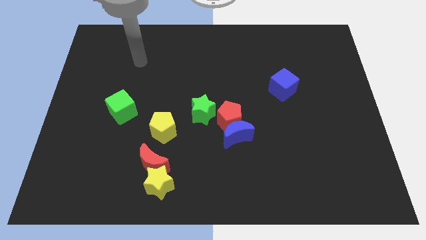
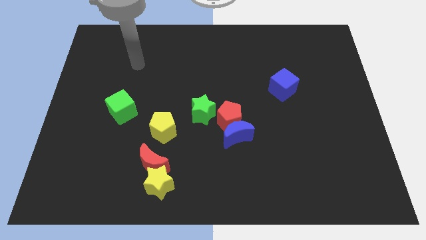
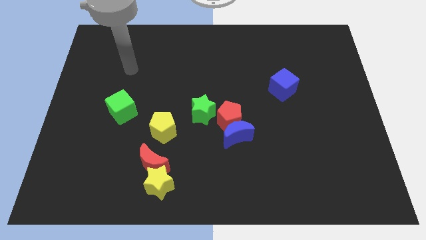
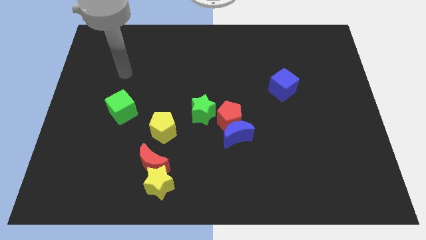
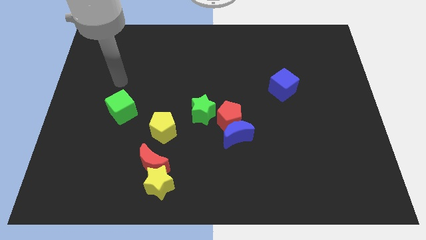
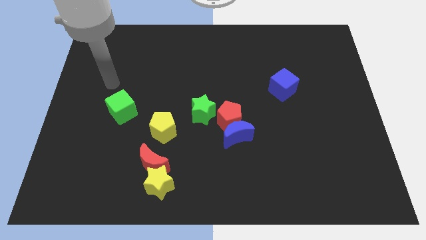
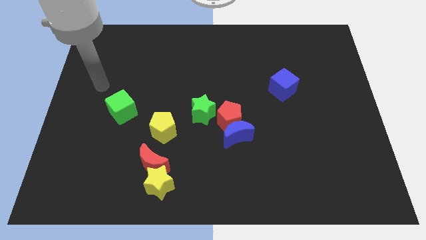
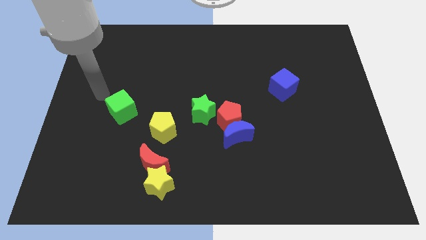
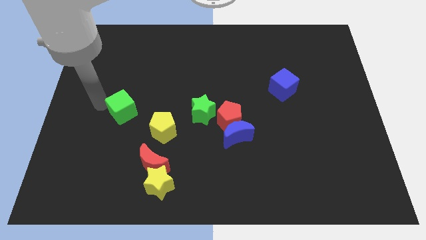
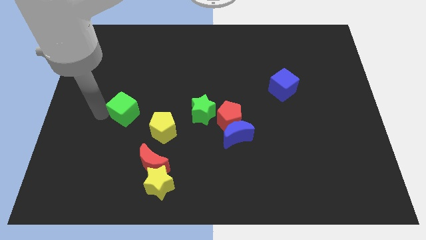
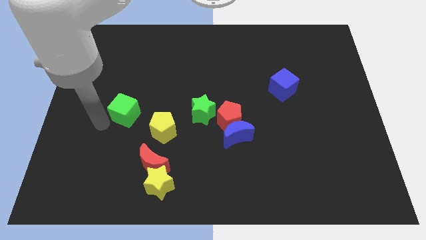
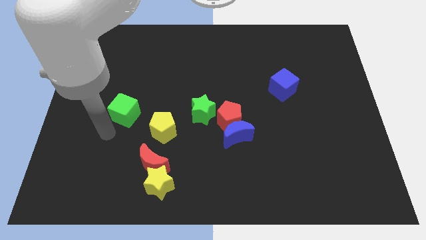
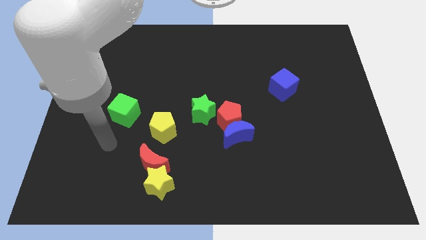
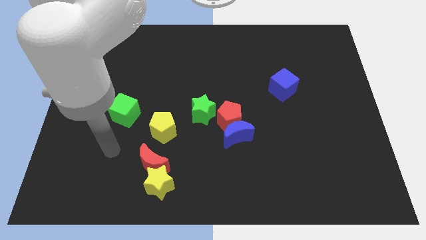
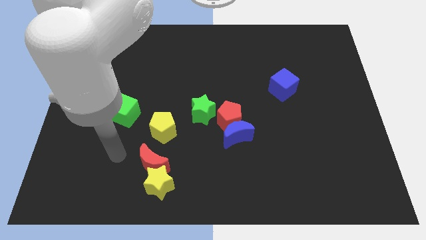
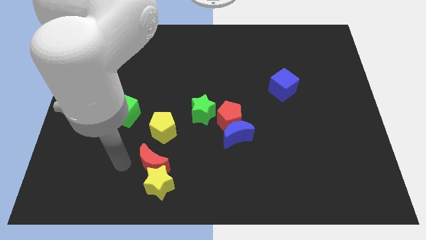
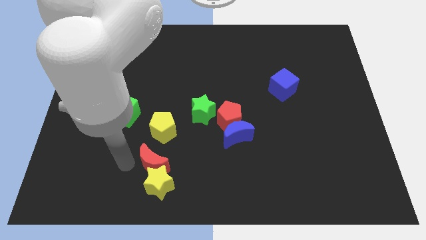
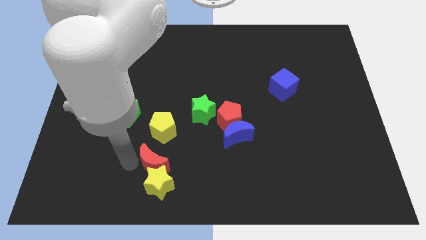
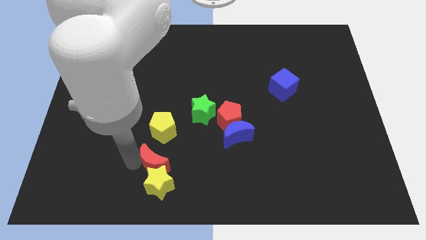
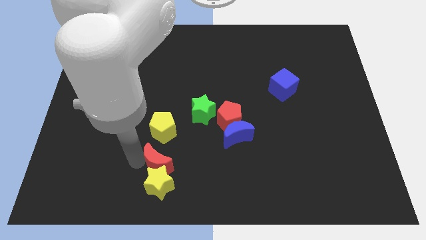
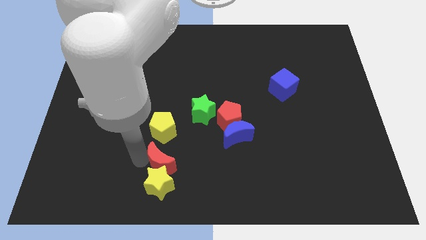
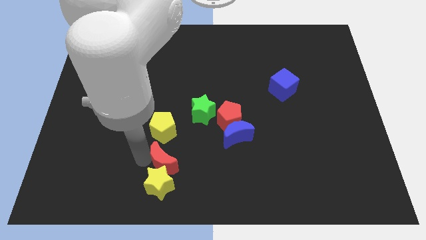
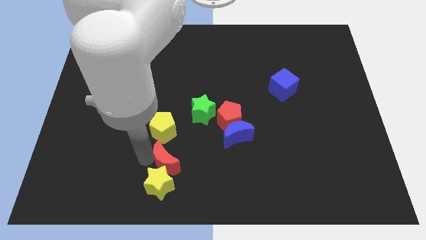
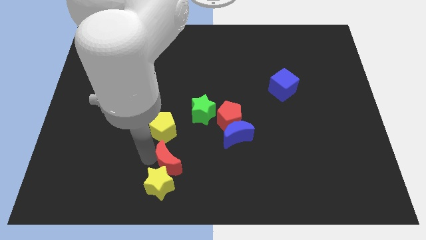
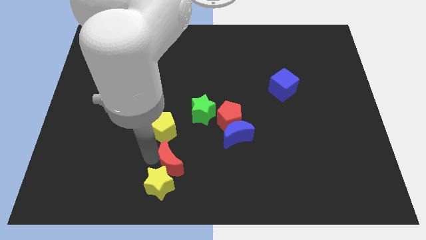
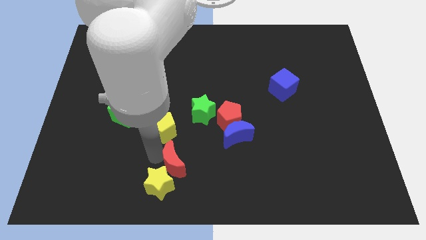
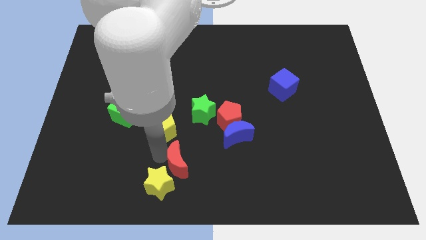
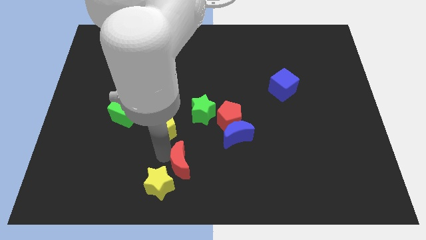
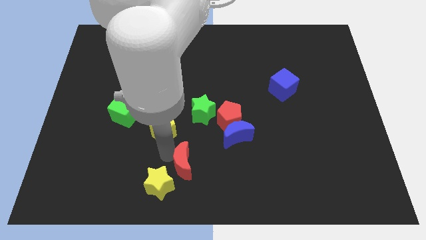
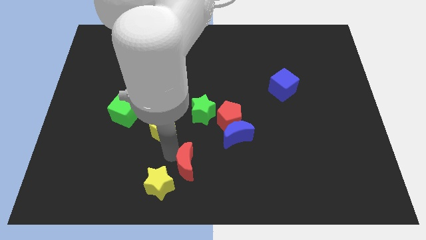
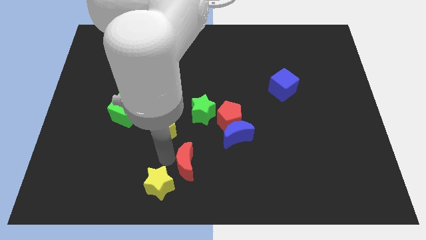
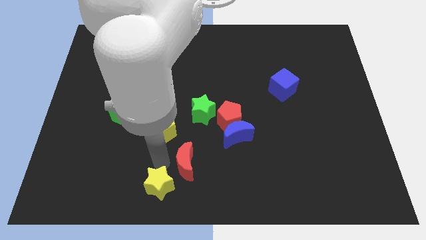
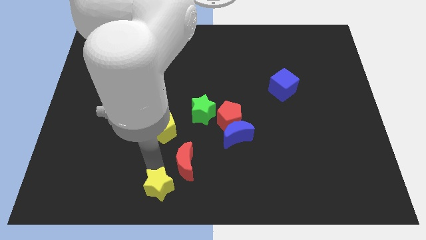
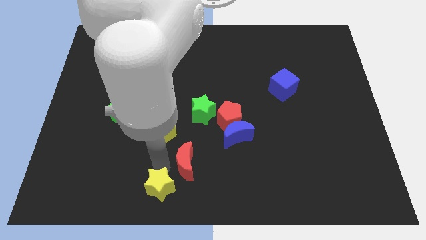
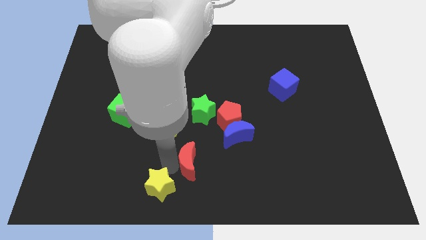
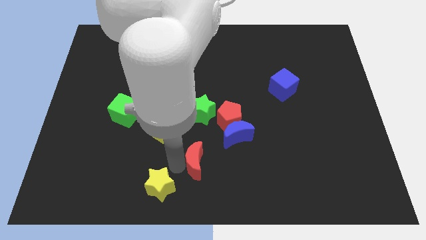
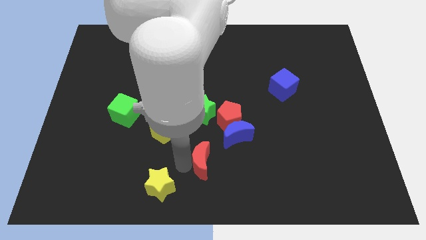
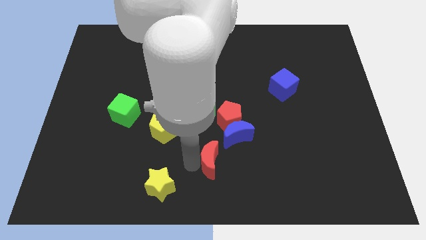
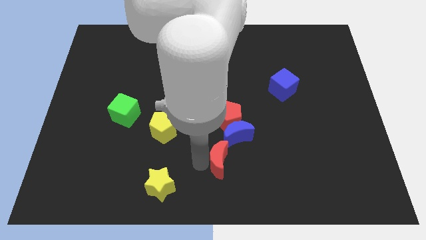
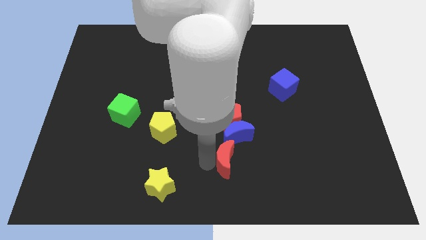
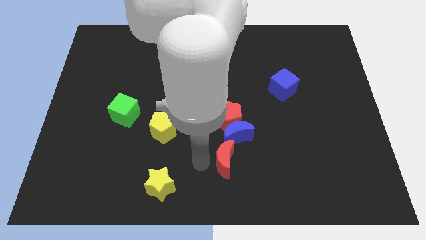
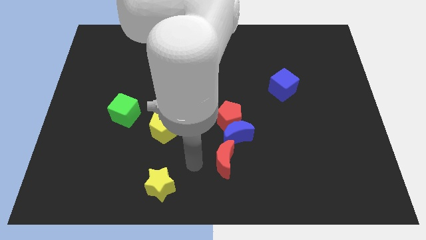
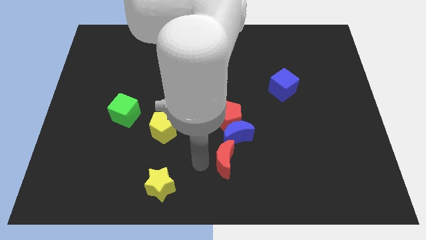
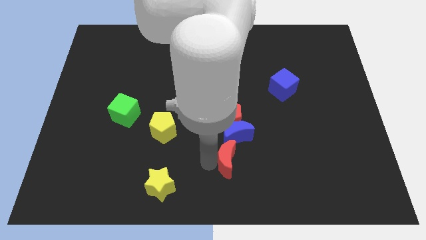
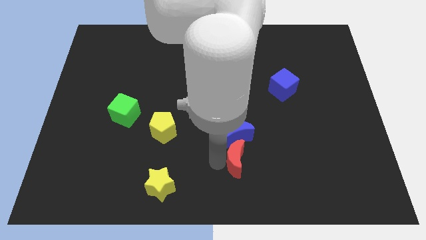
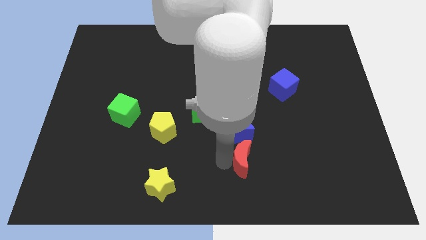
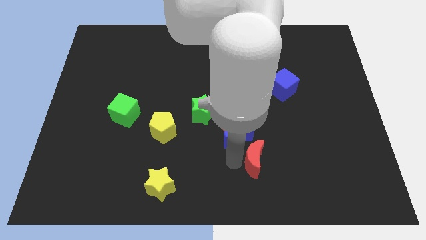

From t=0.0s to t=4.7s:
push the red moon right

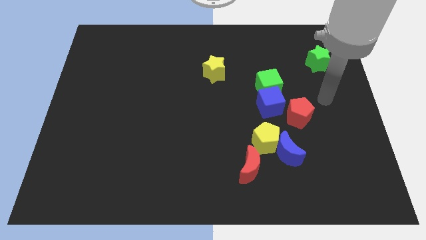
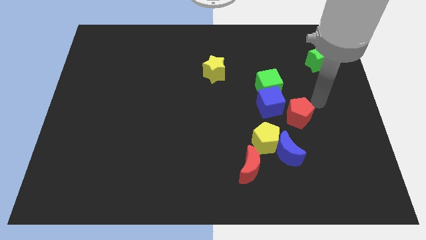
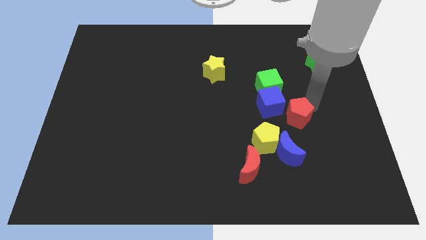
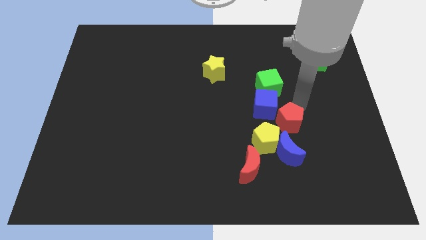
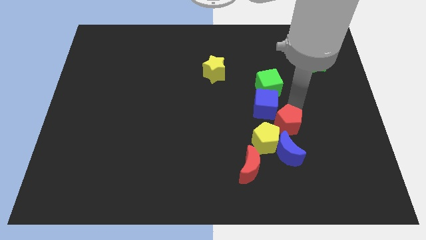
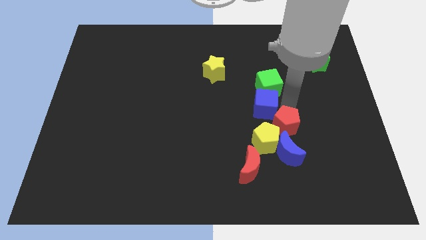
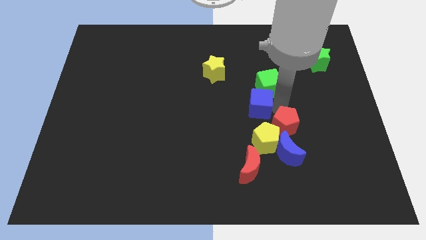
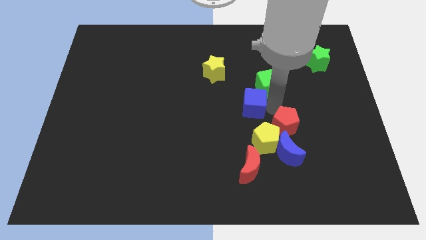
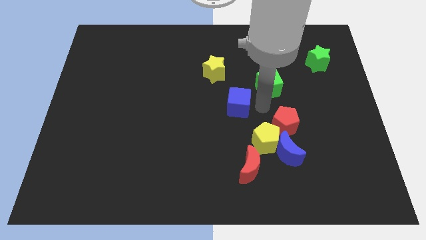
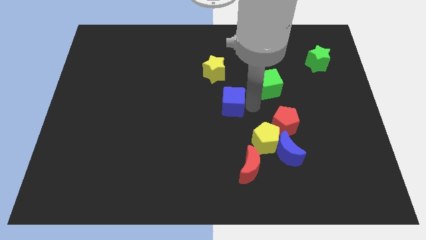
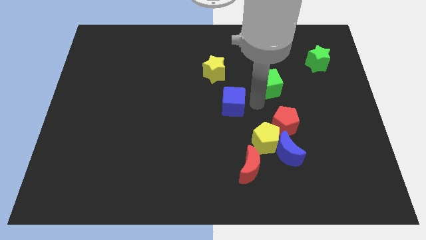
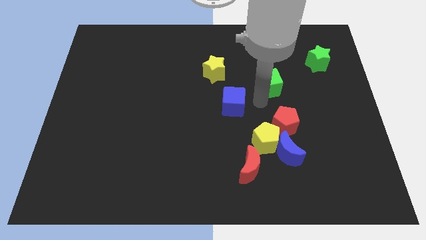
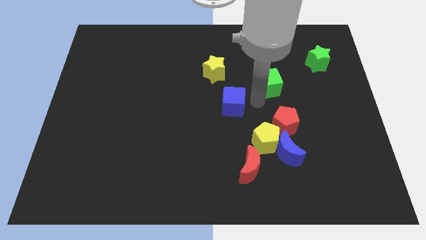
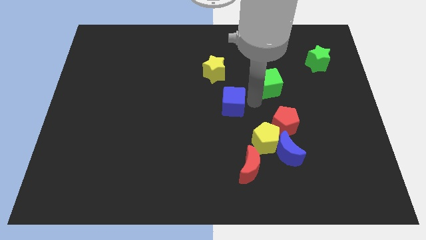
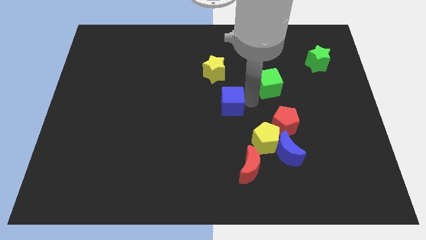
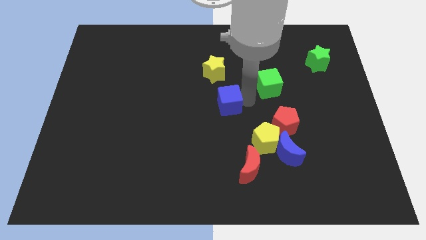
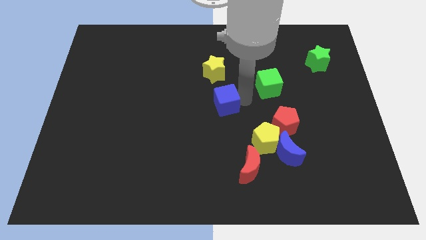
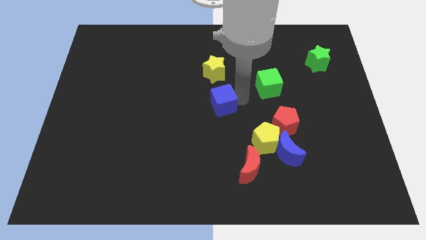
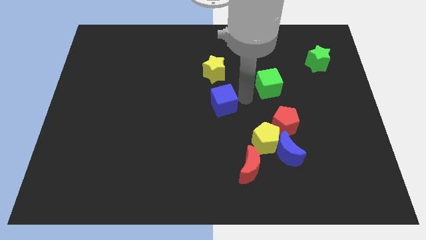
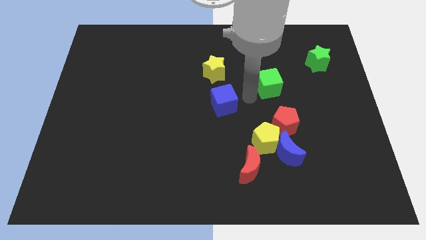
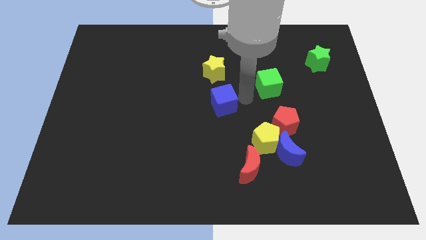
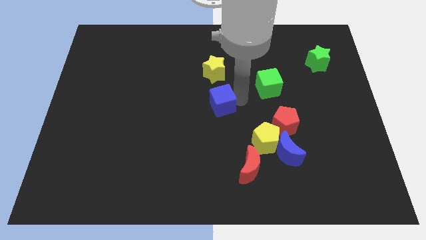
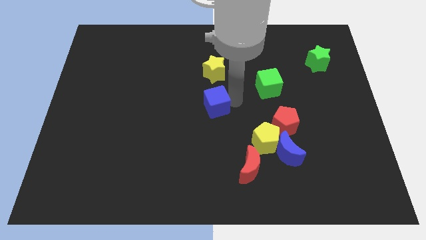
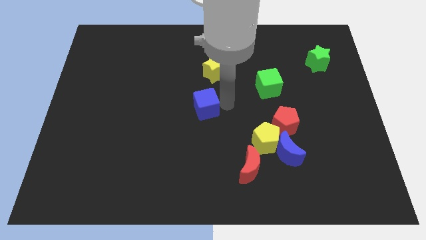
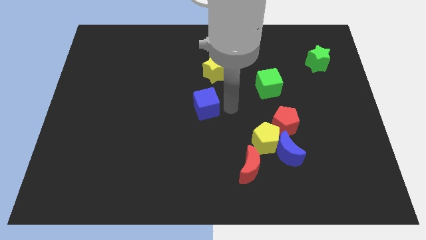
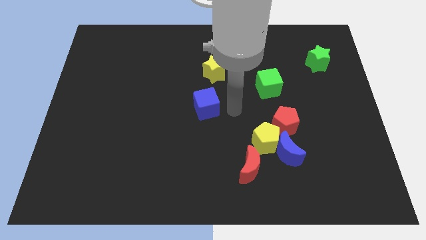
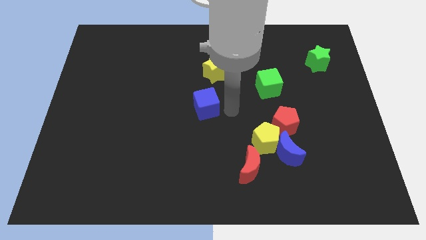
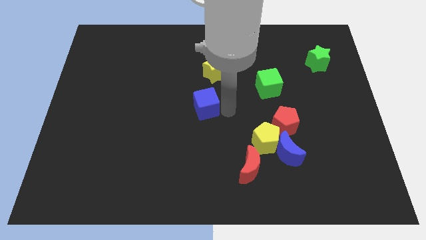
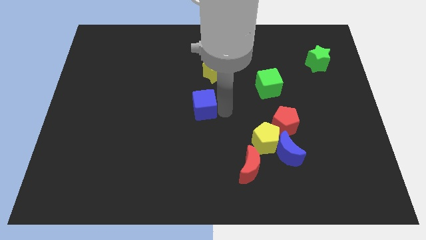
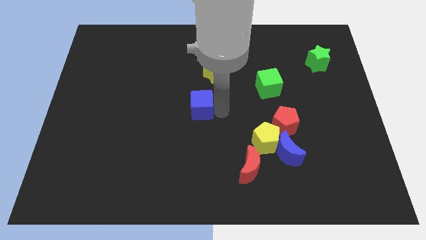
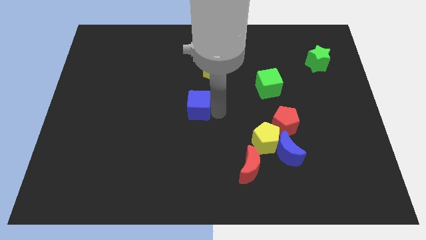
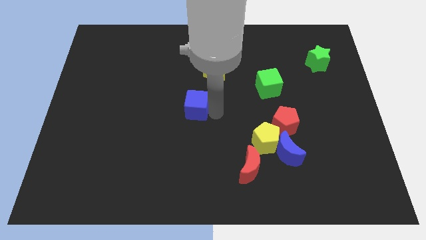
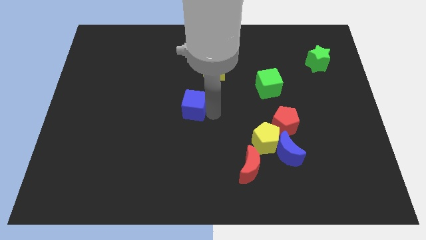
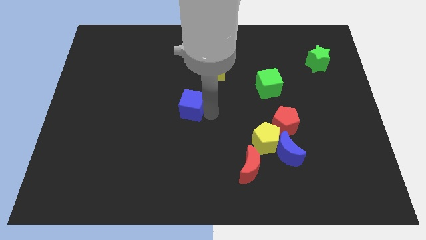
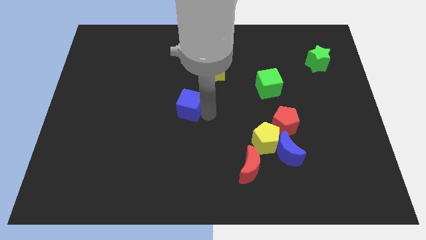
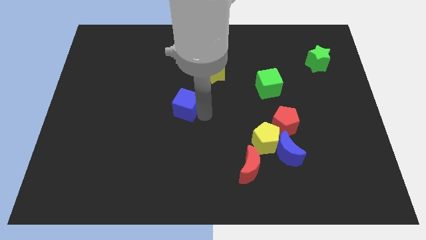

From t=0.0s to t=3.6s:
slide the blue cube to the left

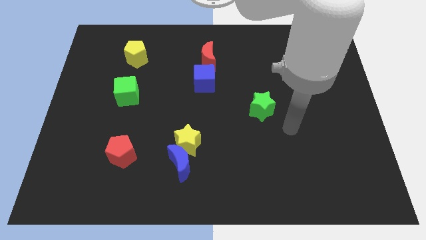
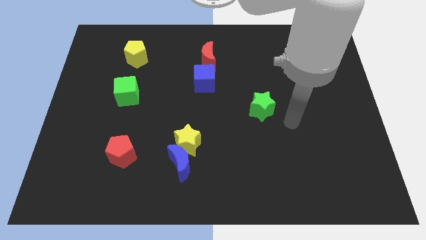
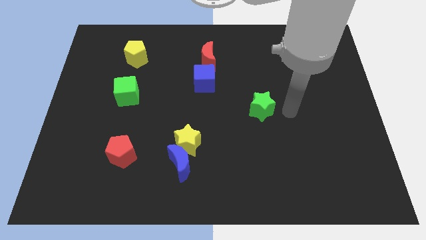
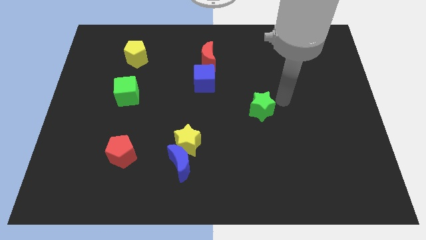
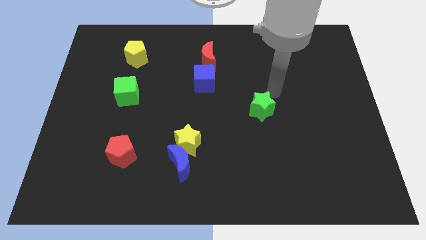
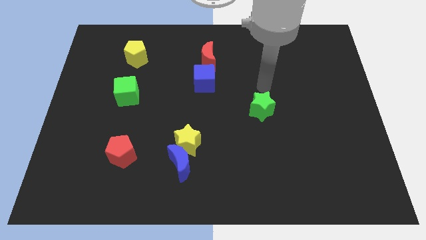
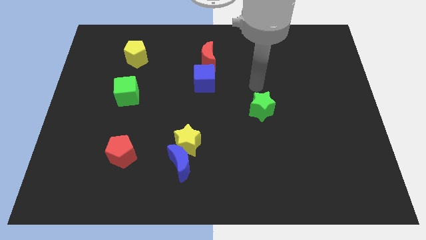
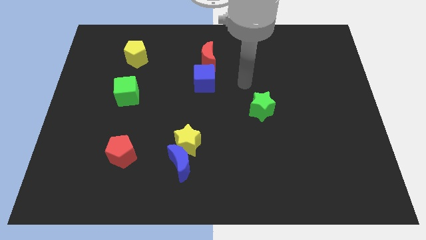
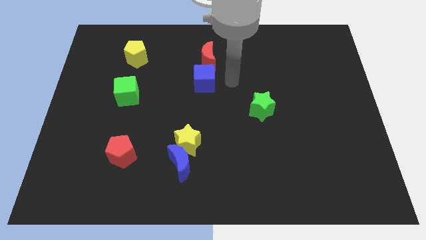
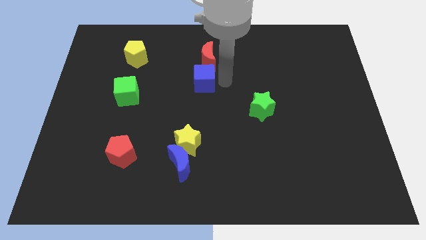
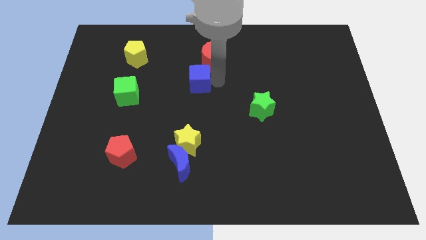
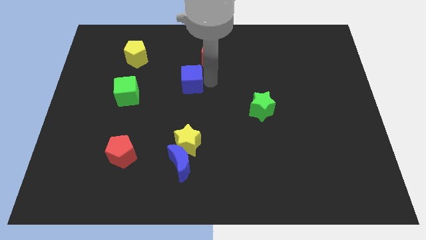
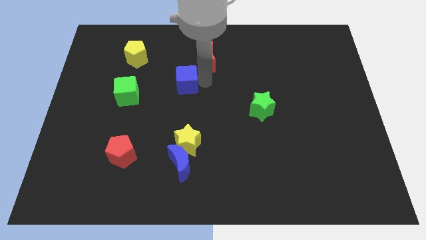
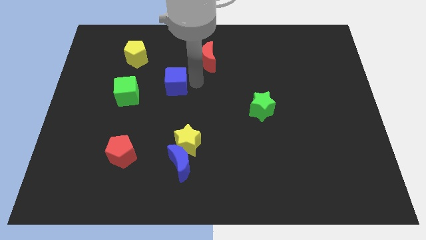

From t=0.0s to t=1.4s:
slightly push the blue cube left
